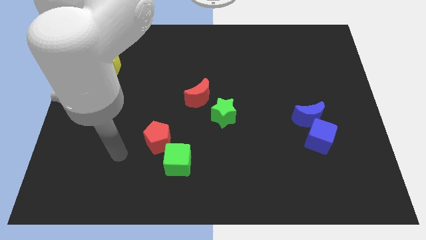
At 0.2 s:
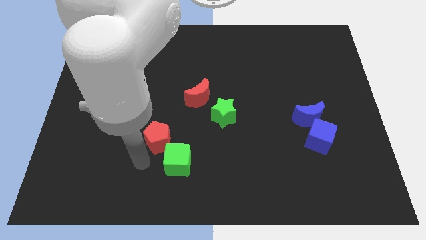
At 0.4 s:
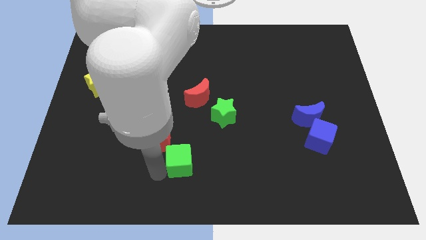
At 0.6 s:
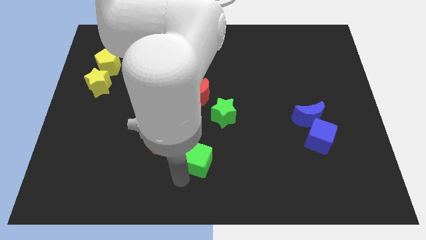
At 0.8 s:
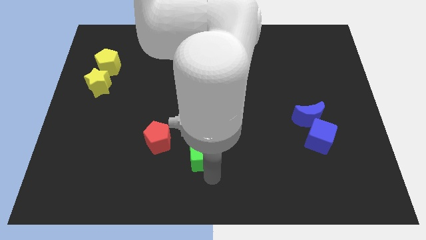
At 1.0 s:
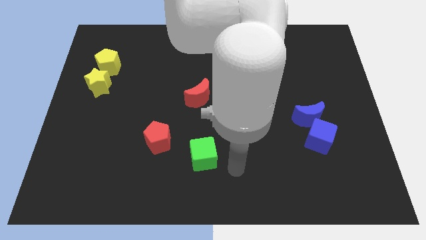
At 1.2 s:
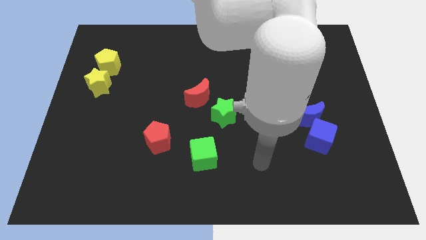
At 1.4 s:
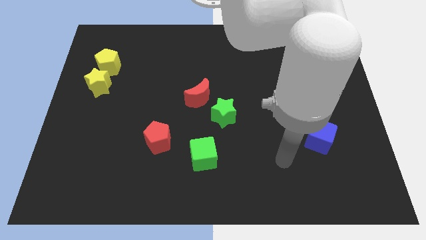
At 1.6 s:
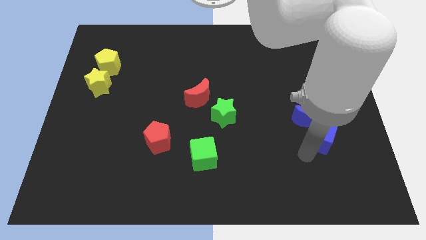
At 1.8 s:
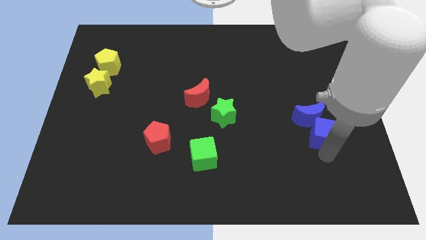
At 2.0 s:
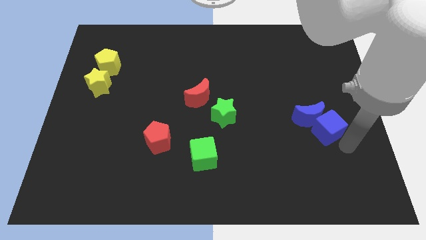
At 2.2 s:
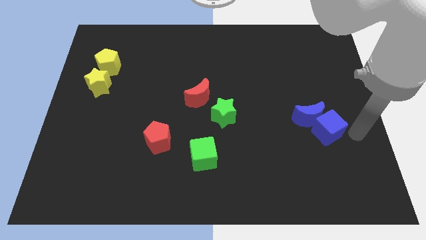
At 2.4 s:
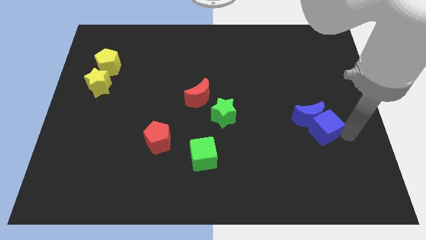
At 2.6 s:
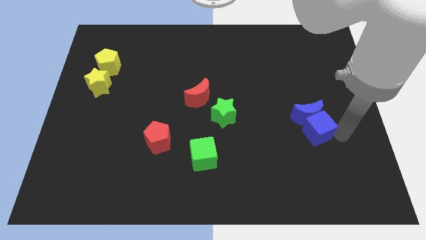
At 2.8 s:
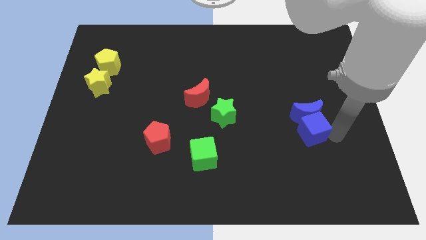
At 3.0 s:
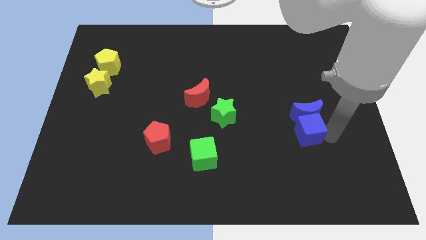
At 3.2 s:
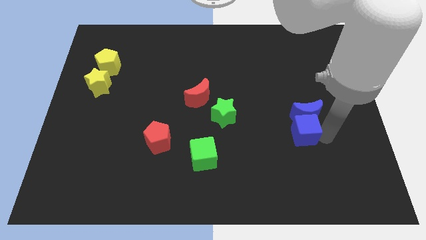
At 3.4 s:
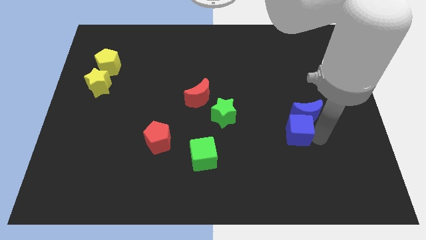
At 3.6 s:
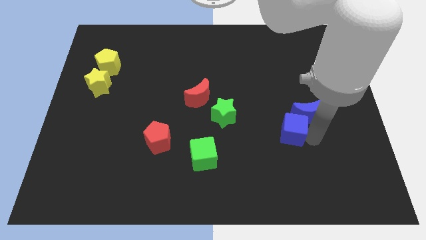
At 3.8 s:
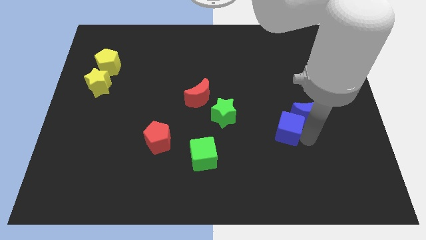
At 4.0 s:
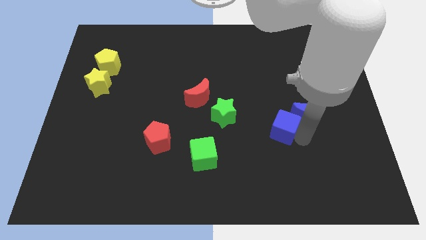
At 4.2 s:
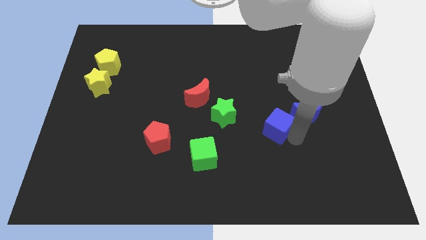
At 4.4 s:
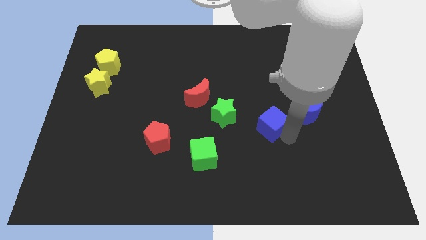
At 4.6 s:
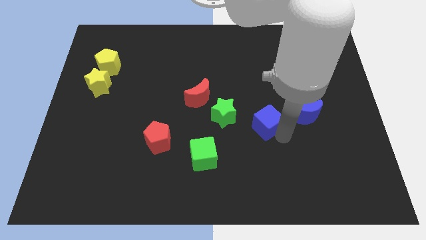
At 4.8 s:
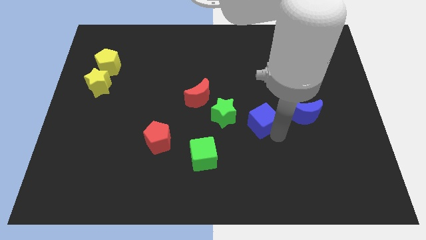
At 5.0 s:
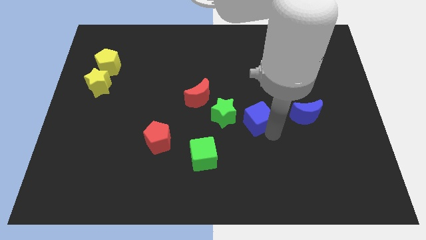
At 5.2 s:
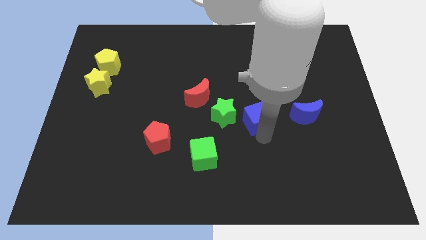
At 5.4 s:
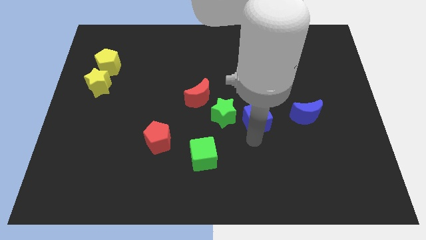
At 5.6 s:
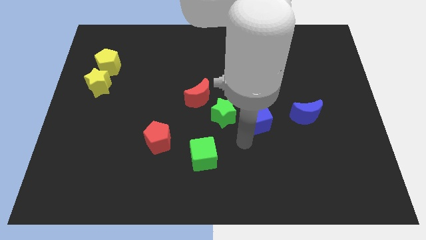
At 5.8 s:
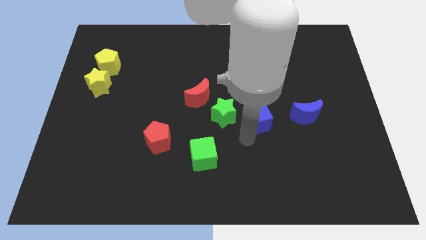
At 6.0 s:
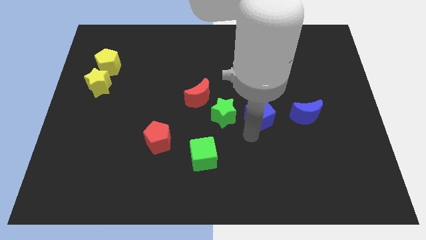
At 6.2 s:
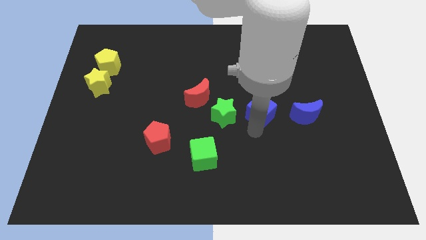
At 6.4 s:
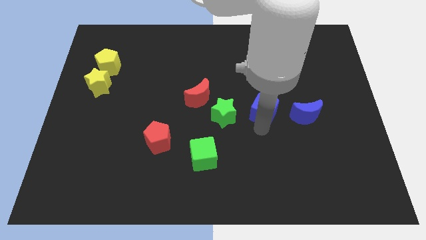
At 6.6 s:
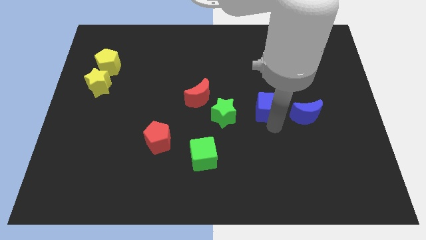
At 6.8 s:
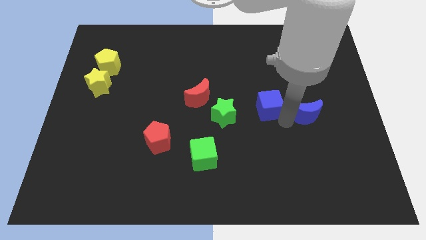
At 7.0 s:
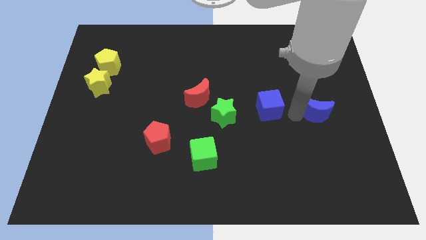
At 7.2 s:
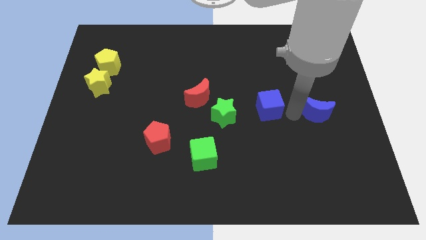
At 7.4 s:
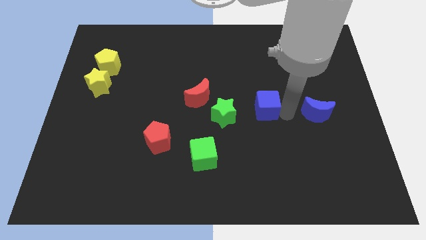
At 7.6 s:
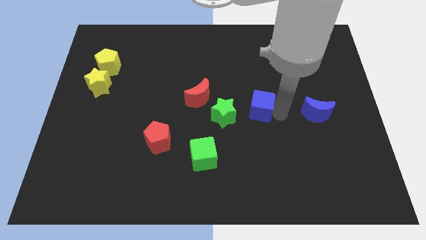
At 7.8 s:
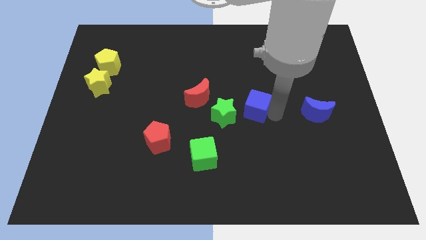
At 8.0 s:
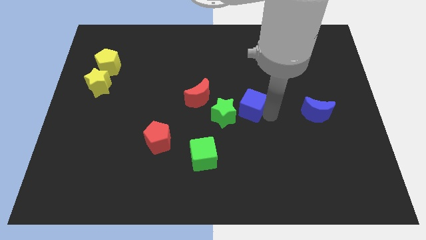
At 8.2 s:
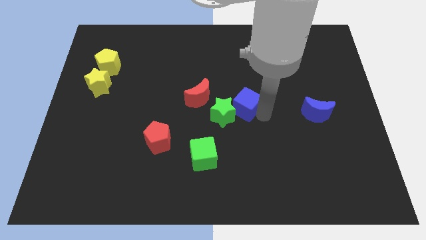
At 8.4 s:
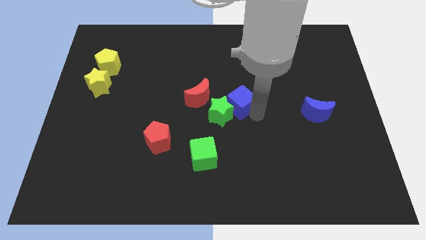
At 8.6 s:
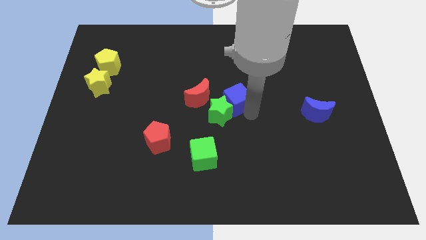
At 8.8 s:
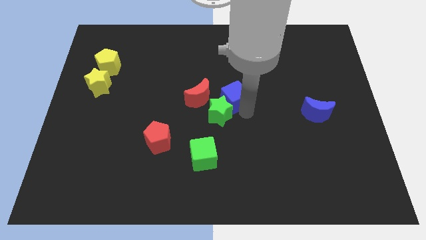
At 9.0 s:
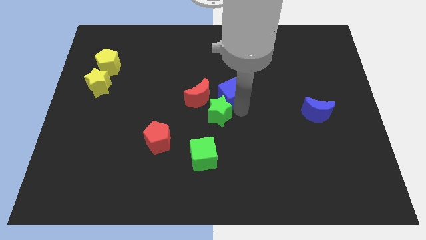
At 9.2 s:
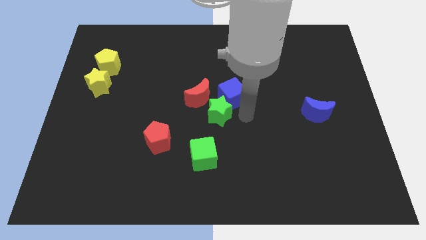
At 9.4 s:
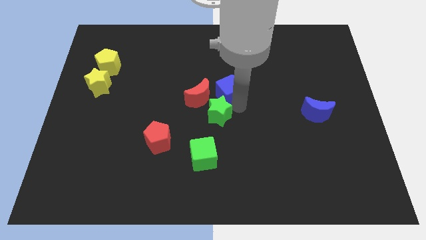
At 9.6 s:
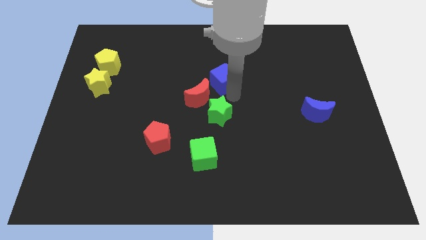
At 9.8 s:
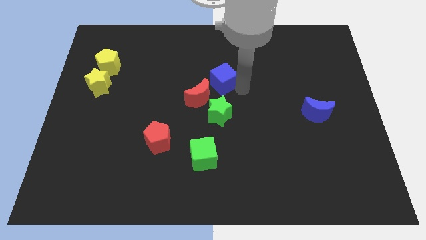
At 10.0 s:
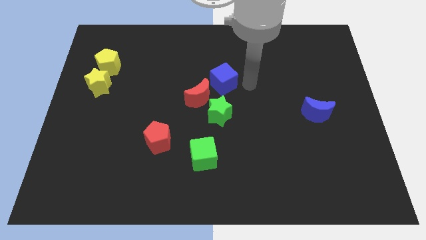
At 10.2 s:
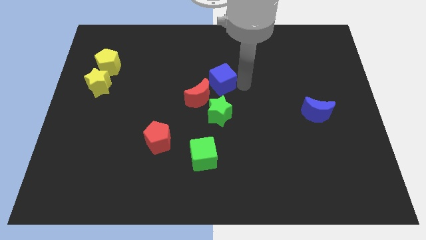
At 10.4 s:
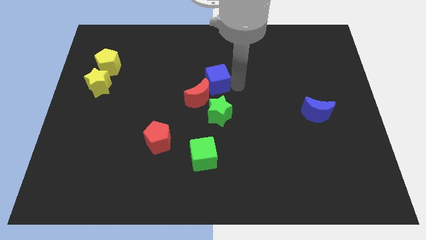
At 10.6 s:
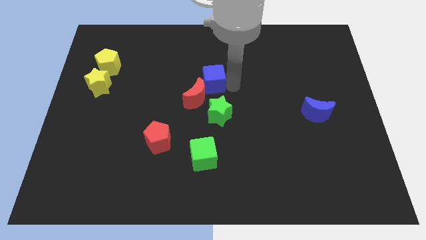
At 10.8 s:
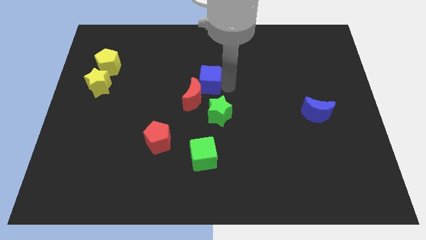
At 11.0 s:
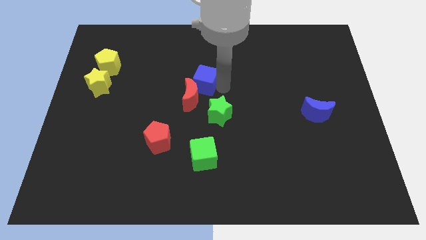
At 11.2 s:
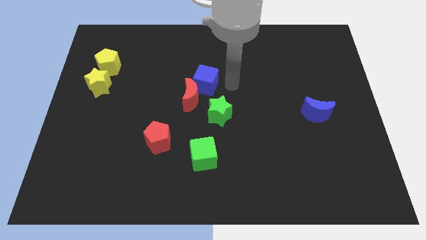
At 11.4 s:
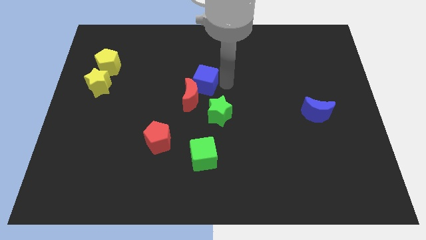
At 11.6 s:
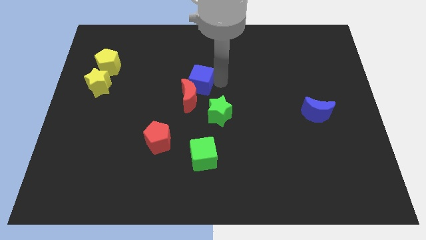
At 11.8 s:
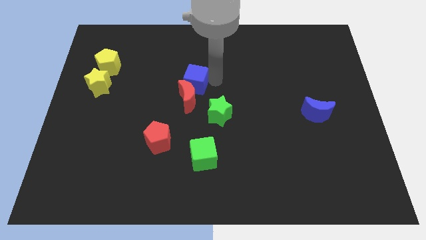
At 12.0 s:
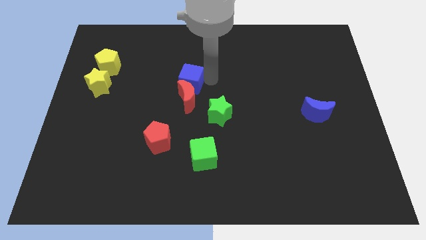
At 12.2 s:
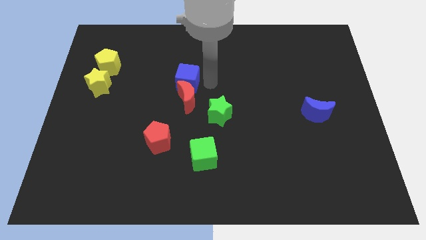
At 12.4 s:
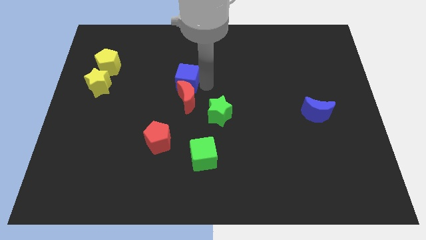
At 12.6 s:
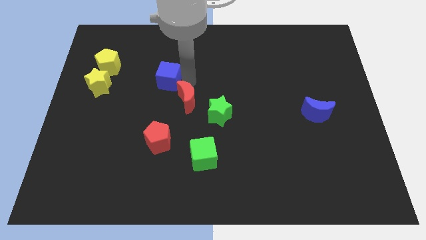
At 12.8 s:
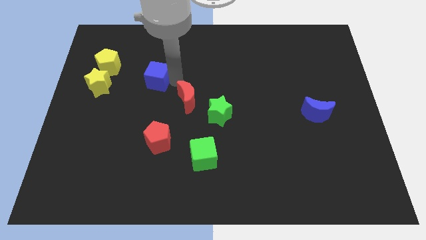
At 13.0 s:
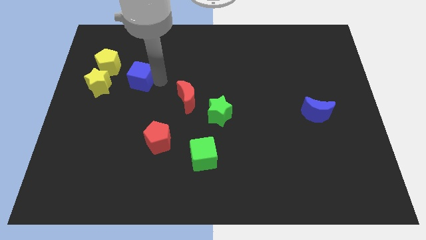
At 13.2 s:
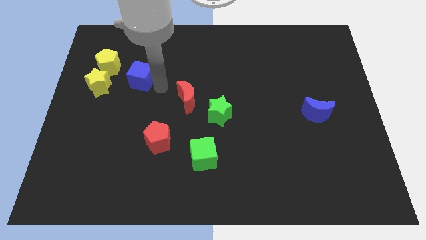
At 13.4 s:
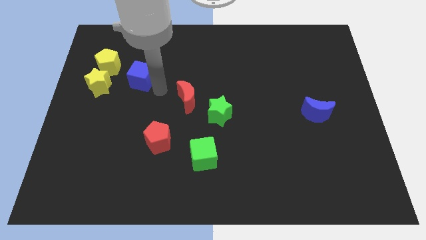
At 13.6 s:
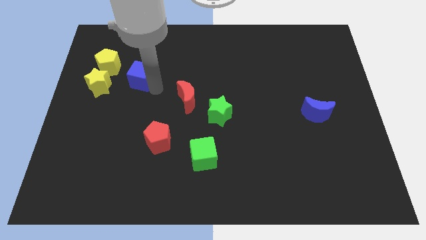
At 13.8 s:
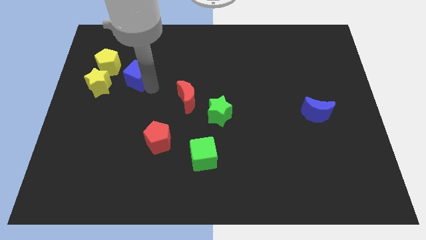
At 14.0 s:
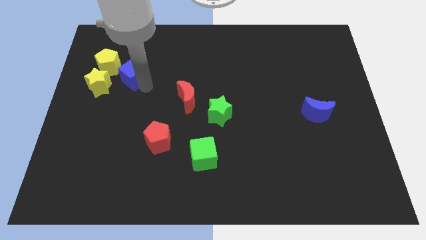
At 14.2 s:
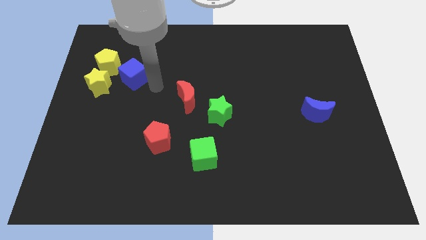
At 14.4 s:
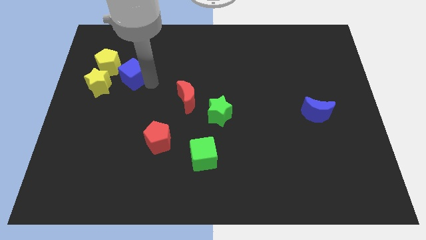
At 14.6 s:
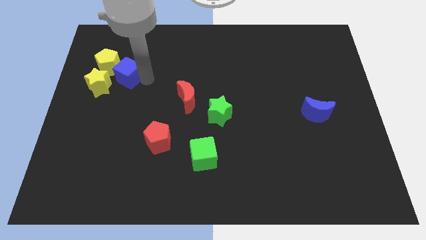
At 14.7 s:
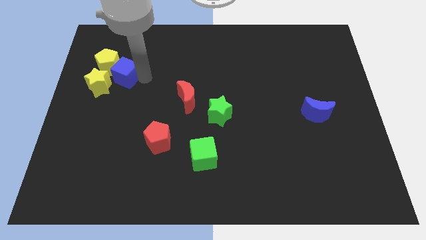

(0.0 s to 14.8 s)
move the blue cube next to the yellow pentagon
